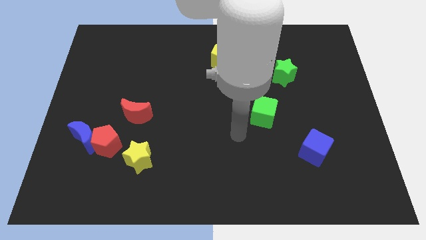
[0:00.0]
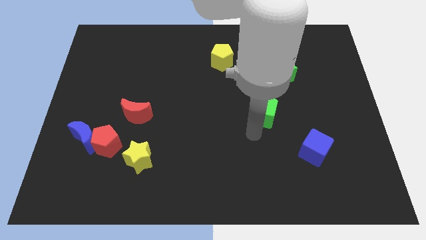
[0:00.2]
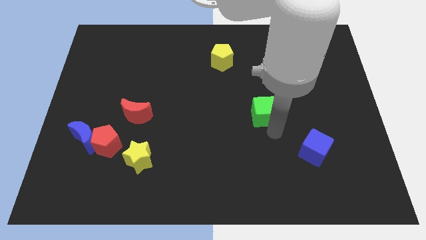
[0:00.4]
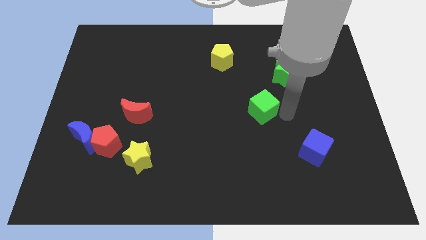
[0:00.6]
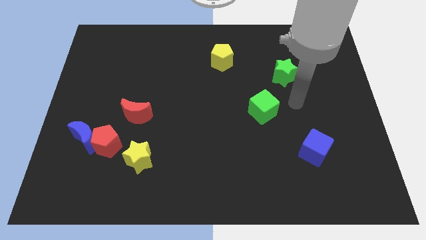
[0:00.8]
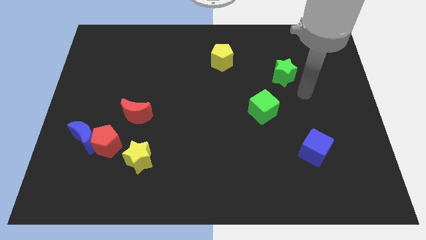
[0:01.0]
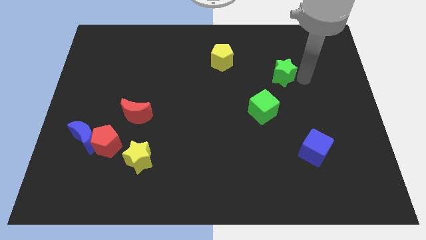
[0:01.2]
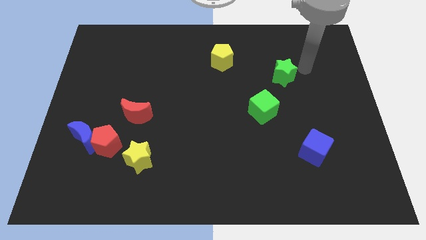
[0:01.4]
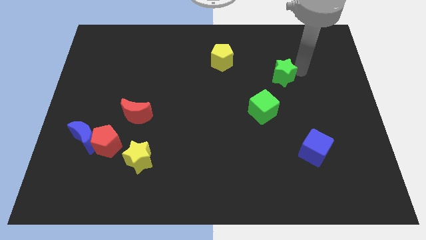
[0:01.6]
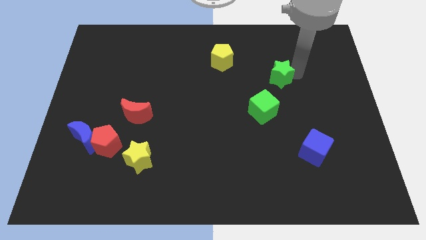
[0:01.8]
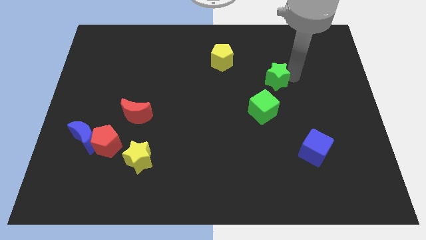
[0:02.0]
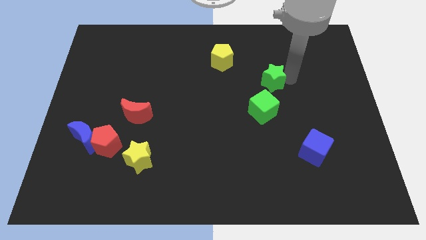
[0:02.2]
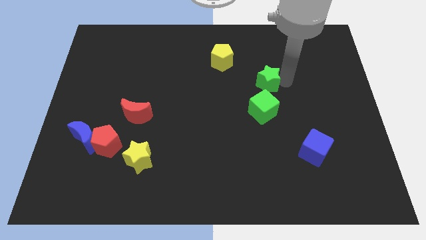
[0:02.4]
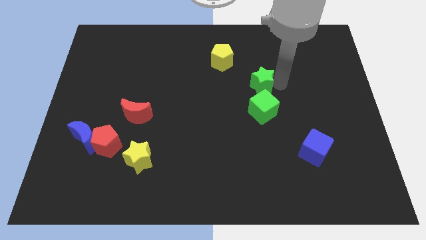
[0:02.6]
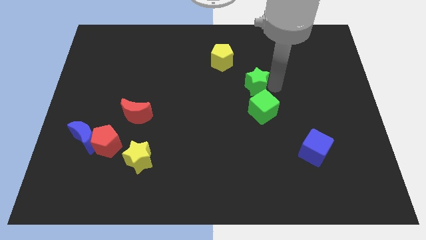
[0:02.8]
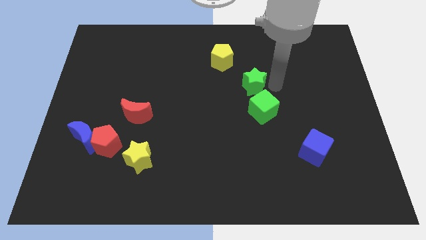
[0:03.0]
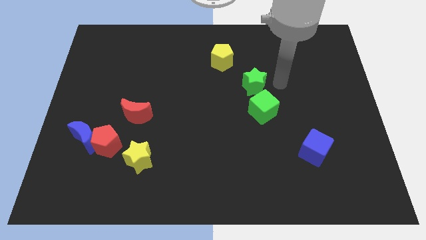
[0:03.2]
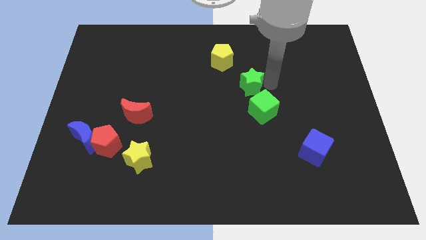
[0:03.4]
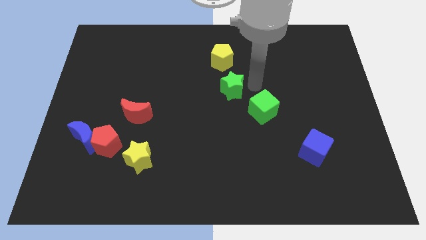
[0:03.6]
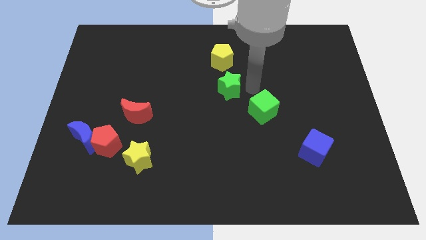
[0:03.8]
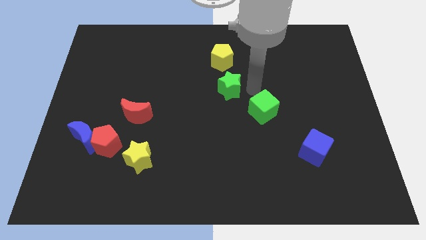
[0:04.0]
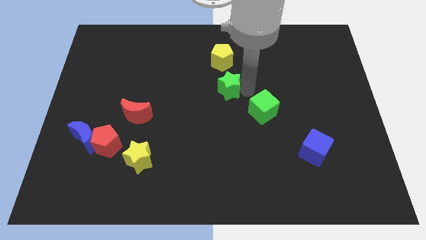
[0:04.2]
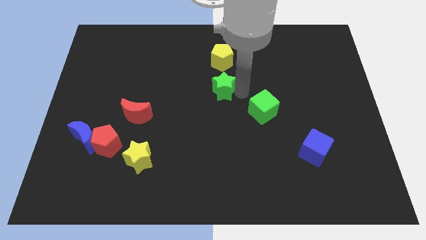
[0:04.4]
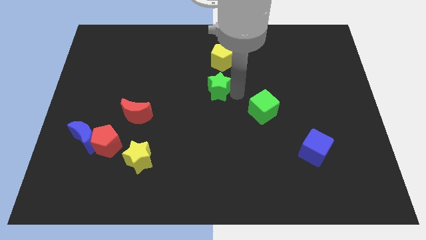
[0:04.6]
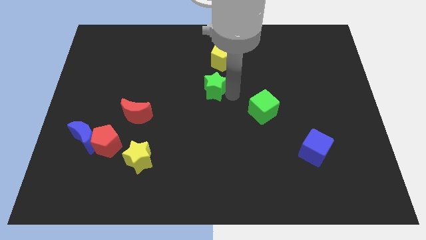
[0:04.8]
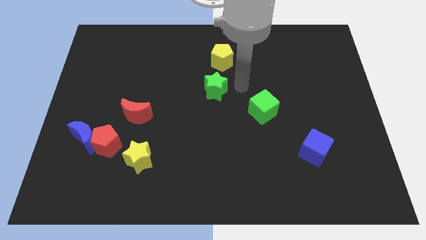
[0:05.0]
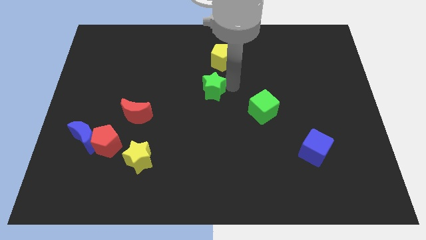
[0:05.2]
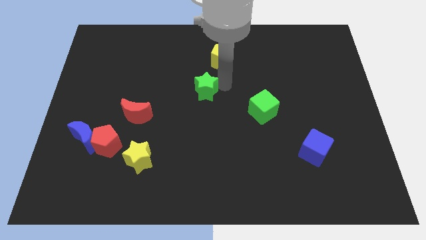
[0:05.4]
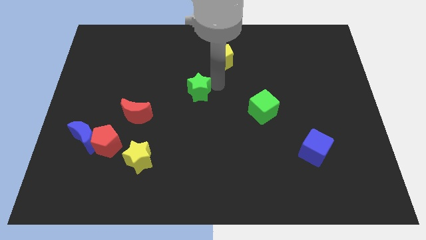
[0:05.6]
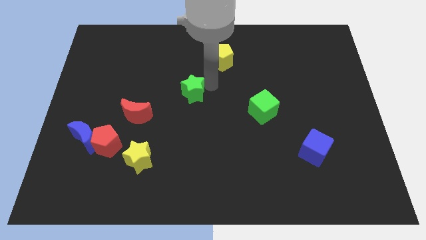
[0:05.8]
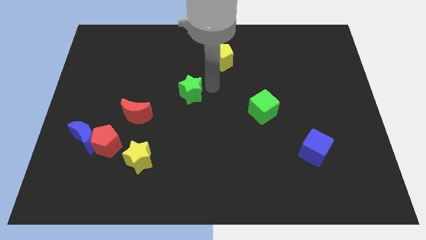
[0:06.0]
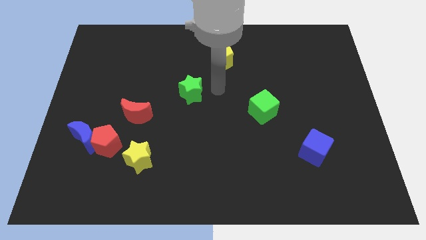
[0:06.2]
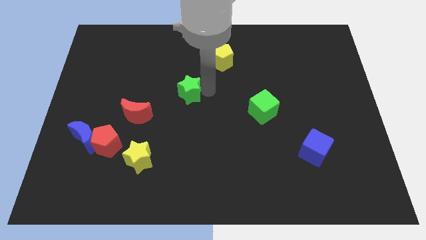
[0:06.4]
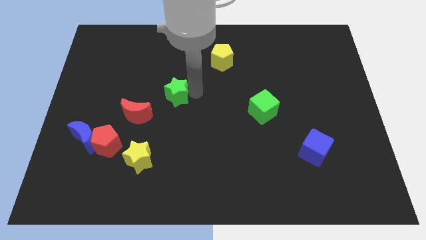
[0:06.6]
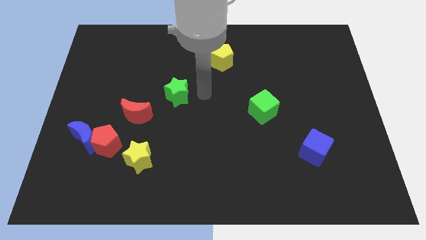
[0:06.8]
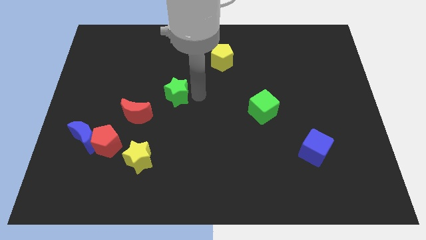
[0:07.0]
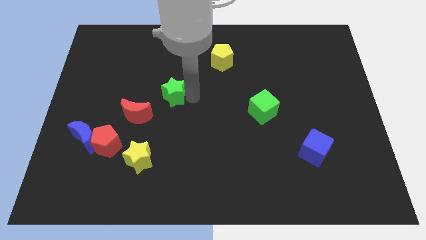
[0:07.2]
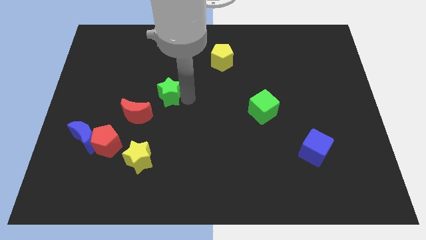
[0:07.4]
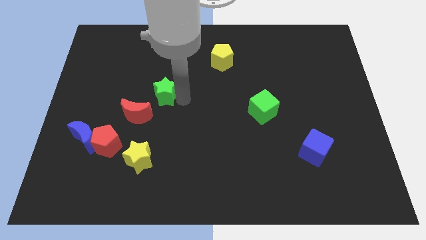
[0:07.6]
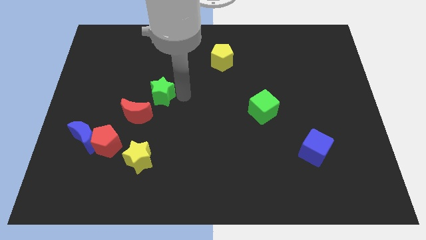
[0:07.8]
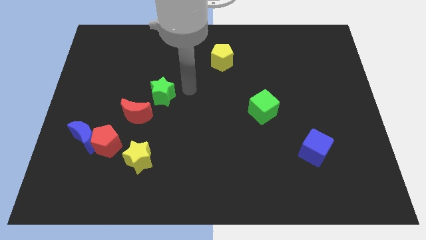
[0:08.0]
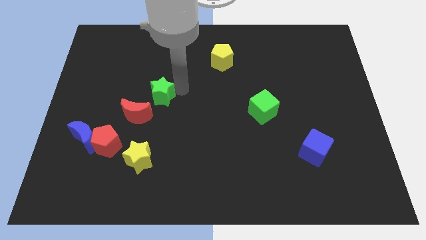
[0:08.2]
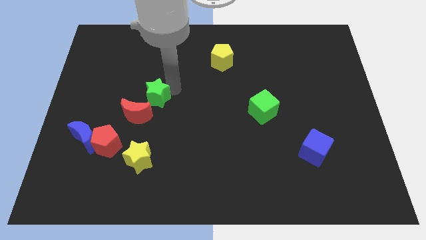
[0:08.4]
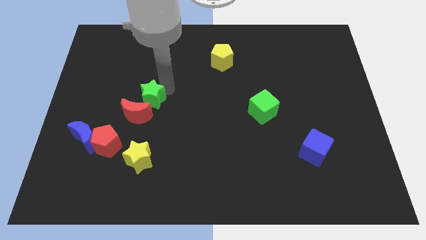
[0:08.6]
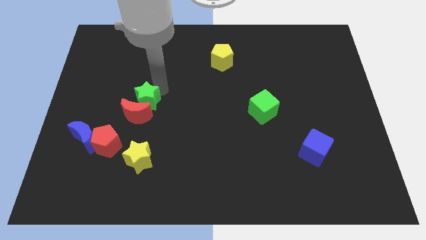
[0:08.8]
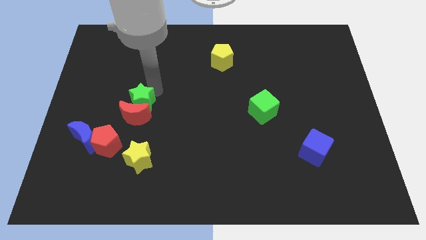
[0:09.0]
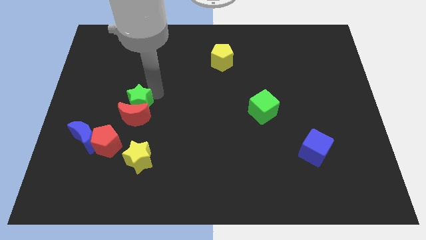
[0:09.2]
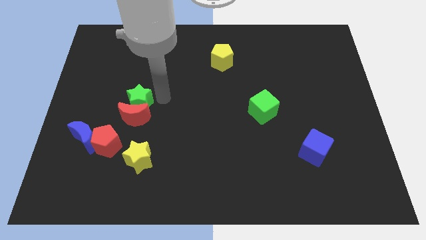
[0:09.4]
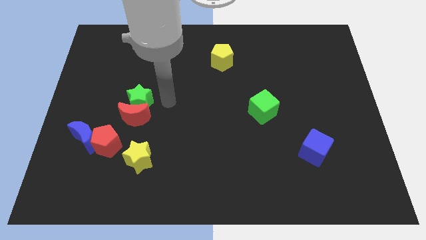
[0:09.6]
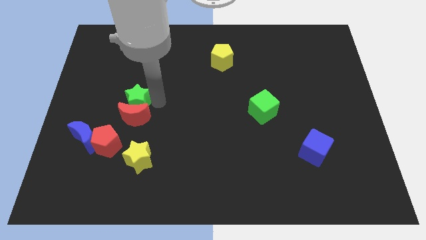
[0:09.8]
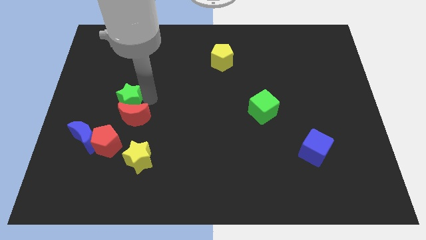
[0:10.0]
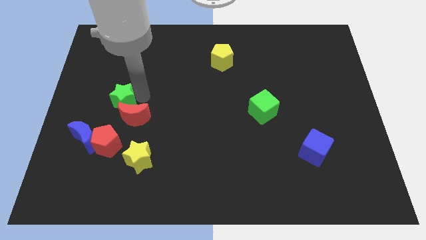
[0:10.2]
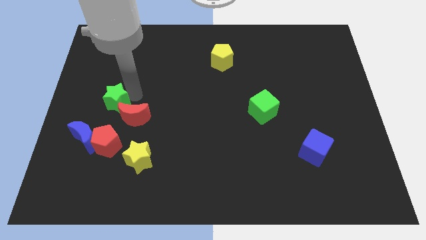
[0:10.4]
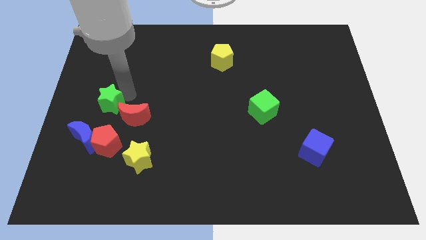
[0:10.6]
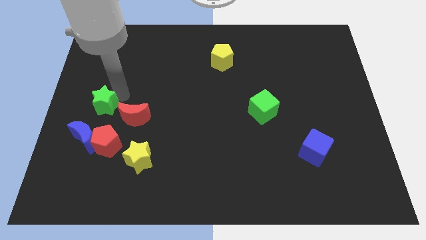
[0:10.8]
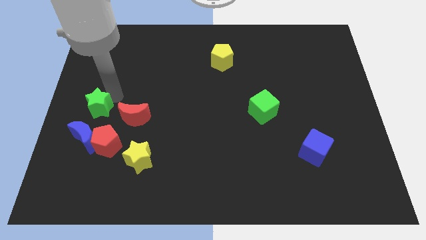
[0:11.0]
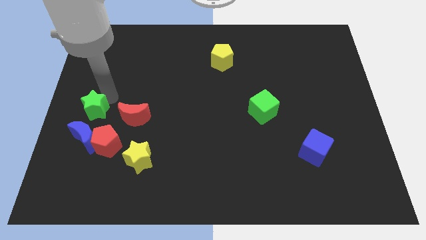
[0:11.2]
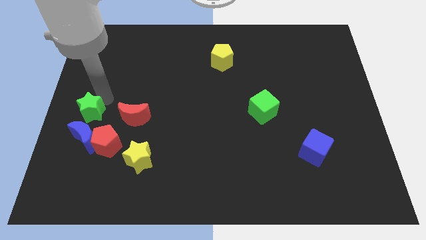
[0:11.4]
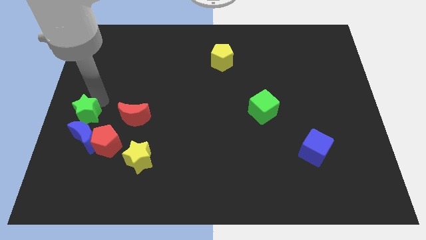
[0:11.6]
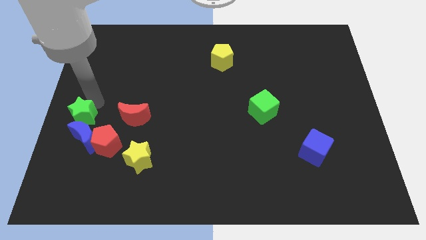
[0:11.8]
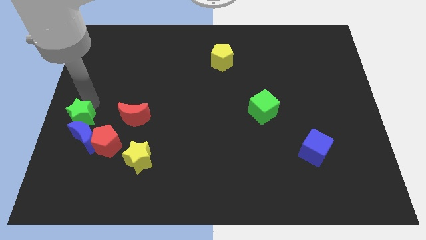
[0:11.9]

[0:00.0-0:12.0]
push the green star close to the blue moon

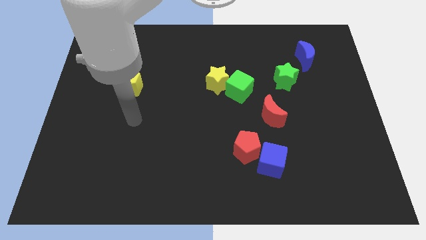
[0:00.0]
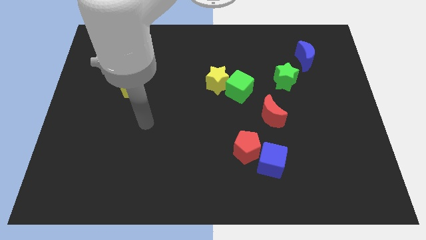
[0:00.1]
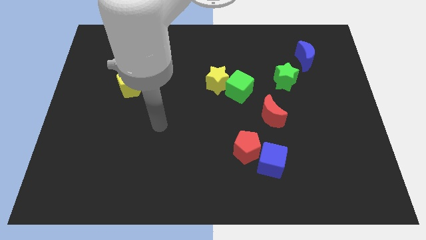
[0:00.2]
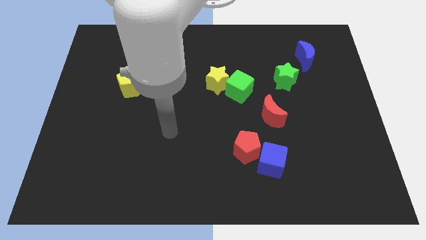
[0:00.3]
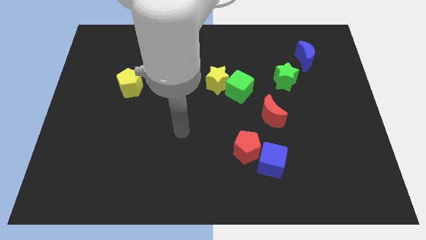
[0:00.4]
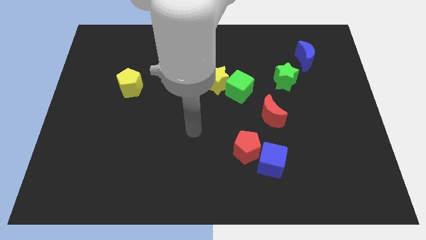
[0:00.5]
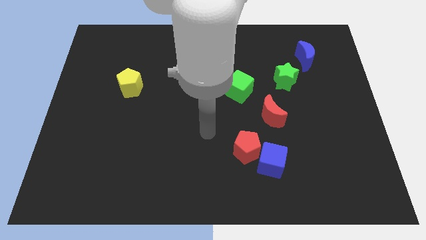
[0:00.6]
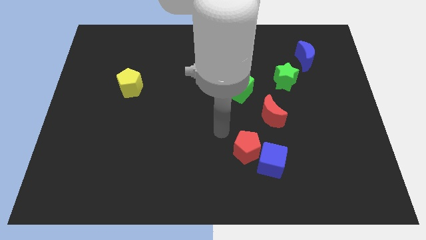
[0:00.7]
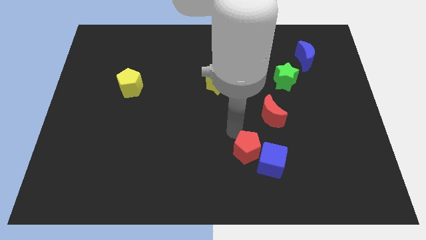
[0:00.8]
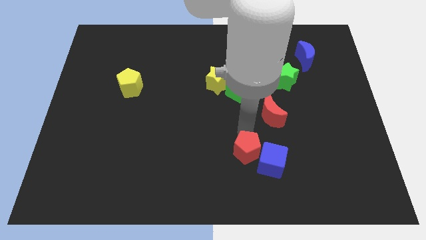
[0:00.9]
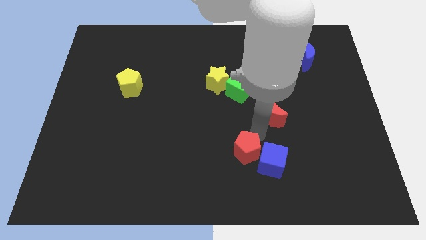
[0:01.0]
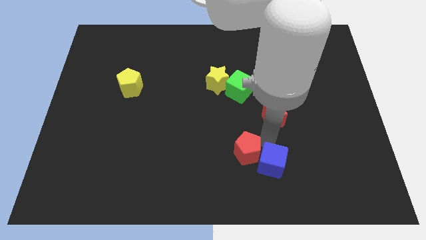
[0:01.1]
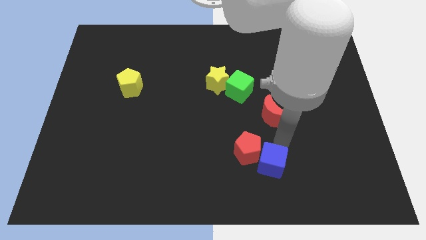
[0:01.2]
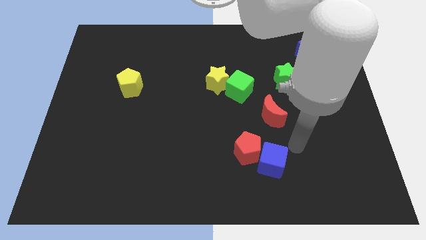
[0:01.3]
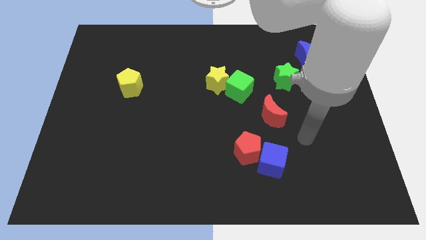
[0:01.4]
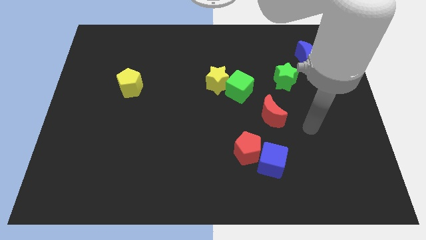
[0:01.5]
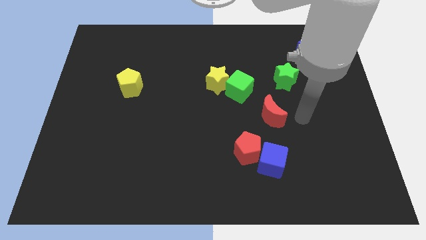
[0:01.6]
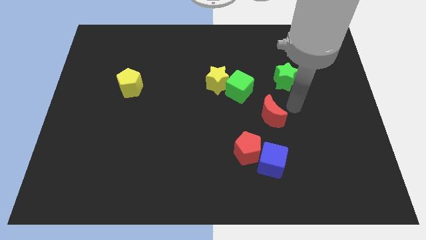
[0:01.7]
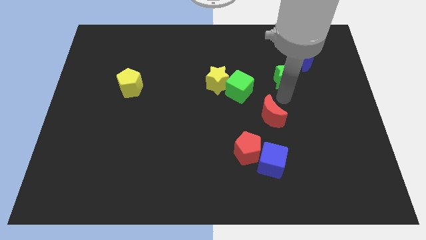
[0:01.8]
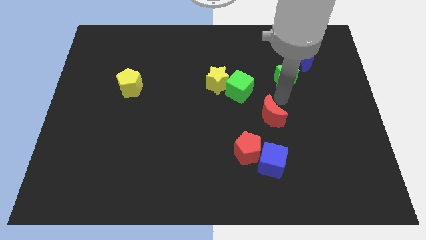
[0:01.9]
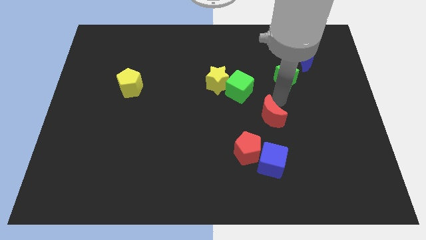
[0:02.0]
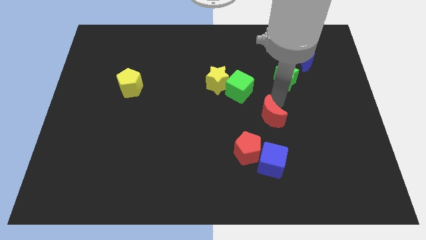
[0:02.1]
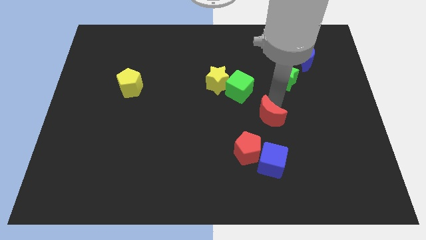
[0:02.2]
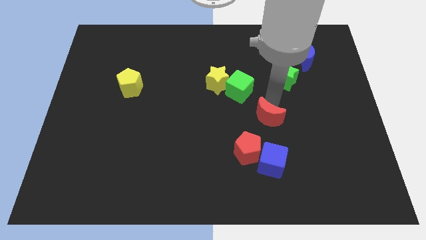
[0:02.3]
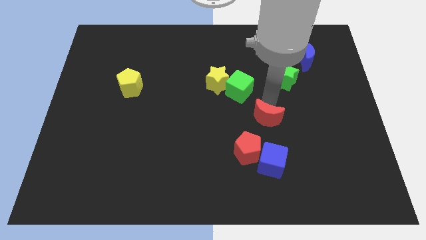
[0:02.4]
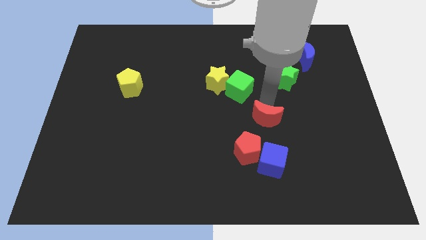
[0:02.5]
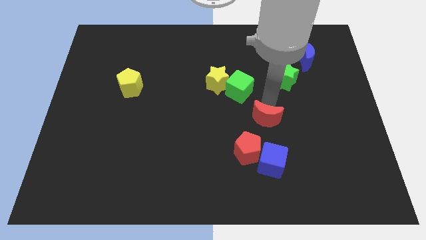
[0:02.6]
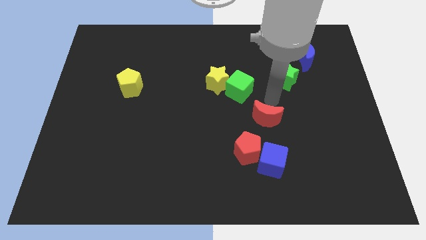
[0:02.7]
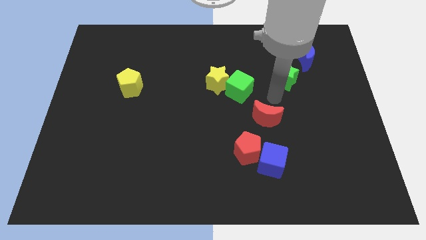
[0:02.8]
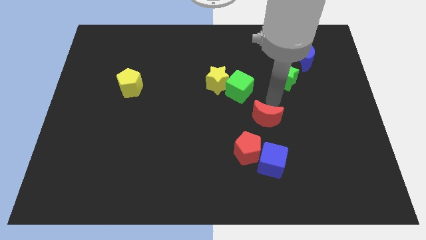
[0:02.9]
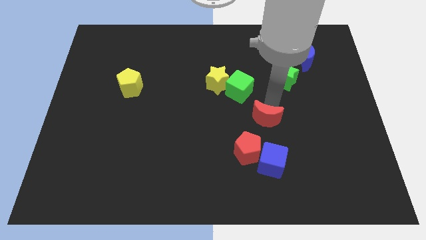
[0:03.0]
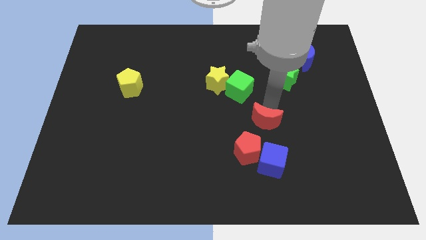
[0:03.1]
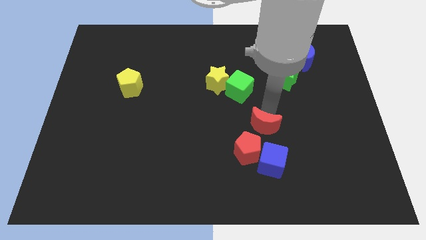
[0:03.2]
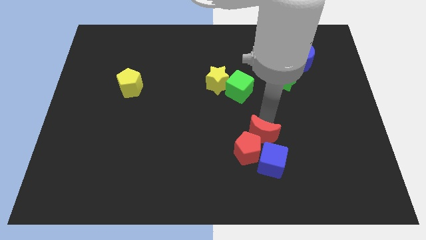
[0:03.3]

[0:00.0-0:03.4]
push the red moon next to the red pentagon
